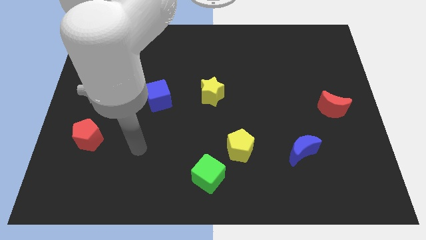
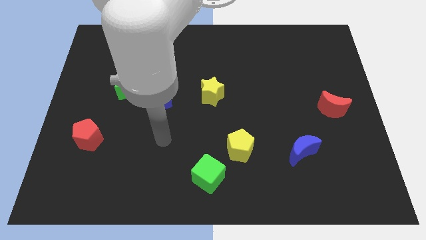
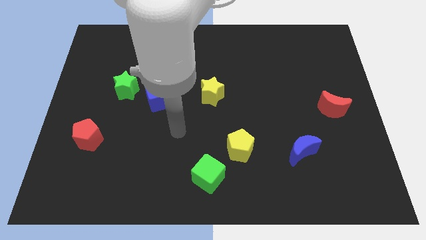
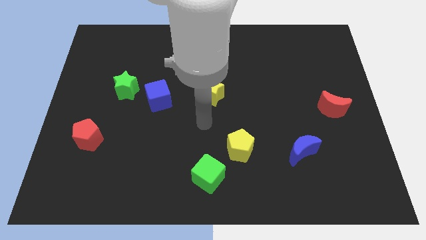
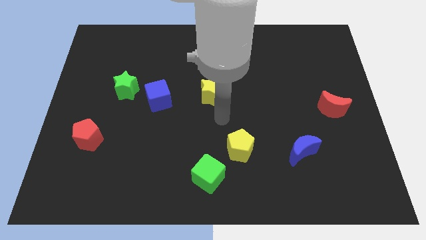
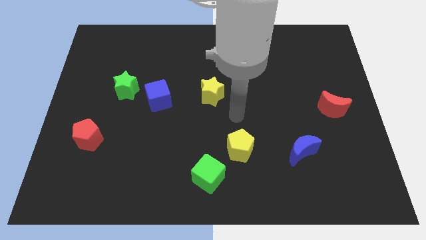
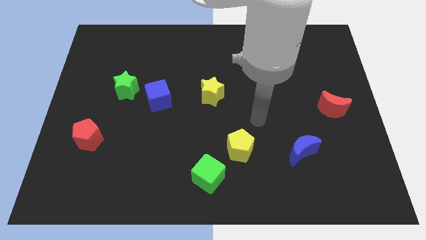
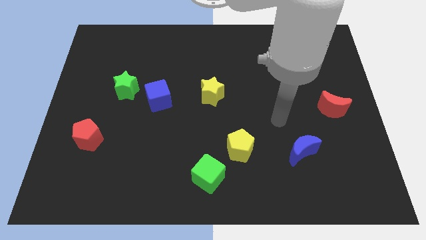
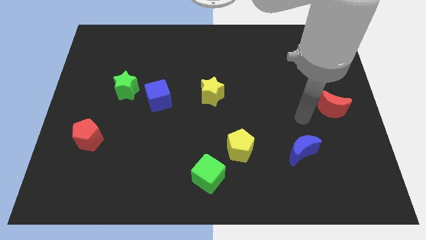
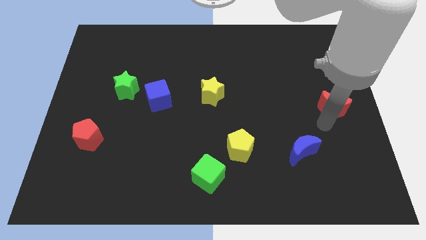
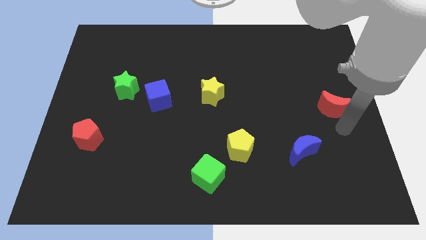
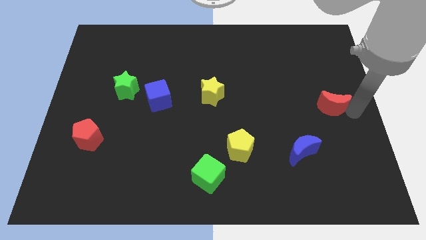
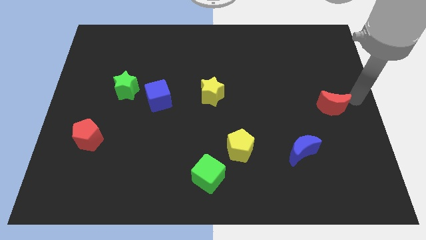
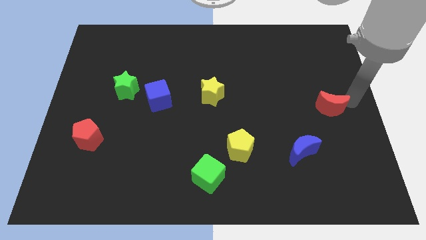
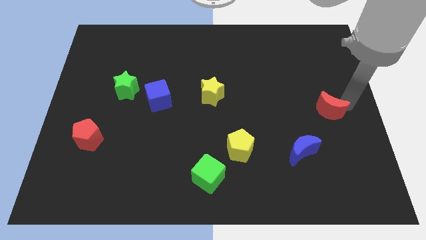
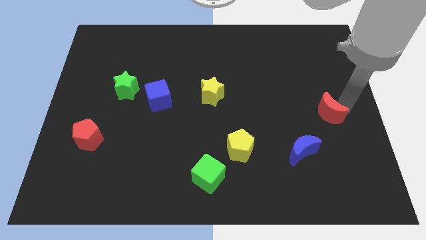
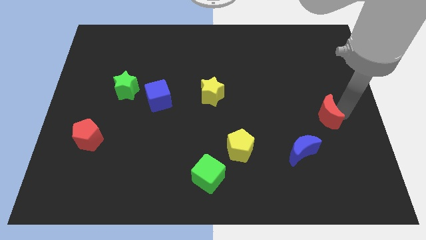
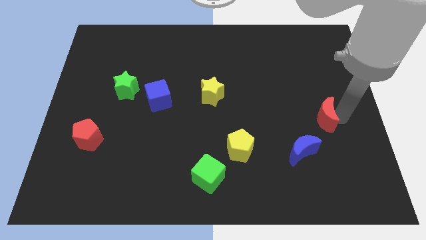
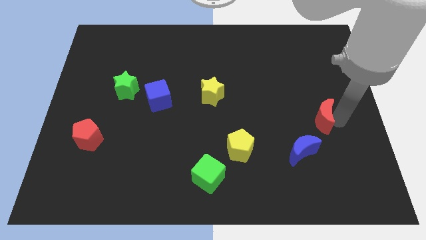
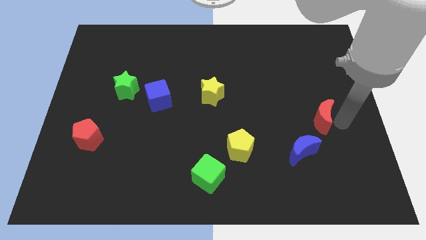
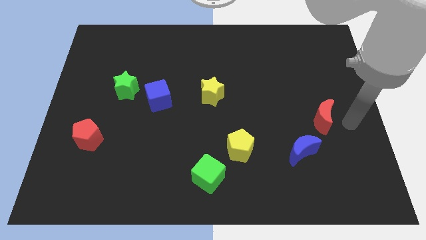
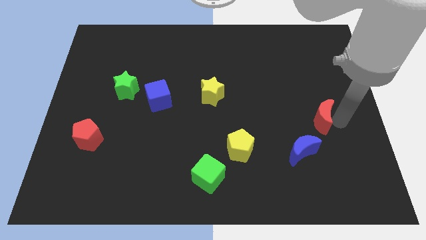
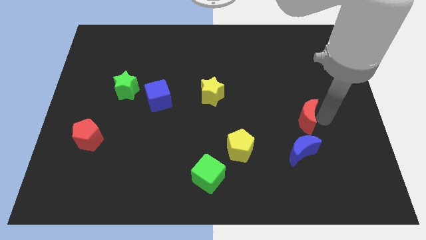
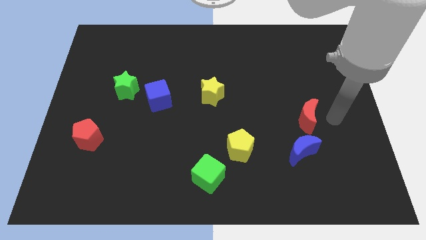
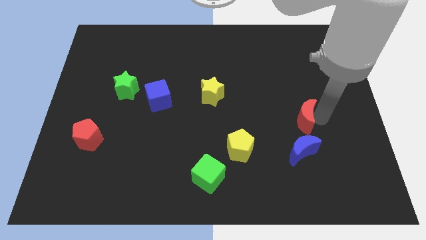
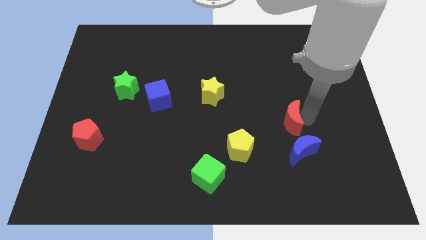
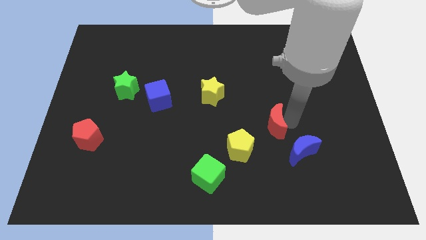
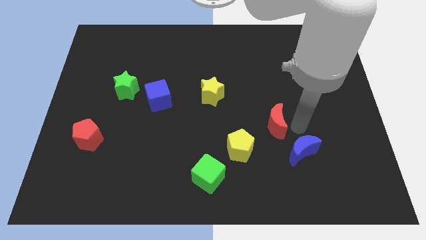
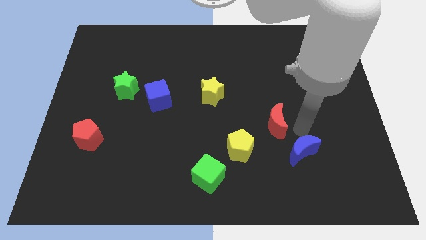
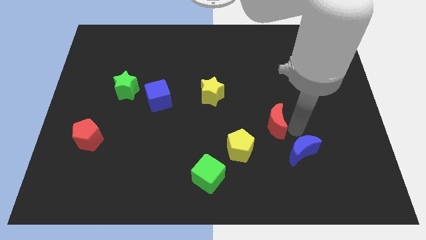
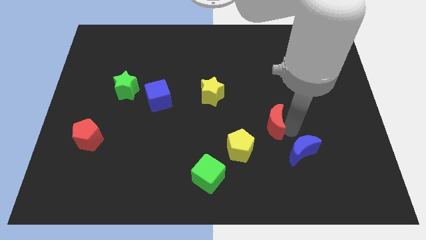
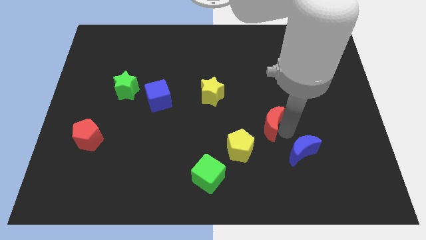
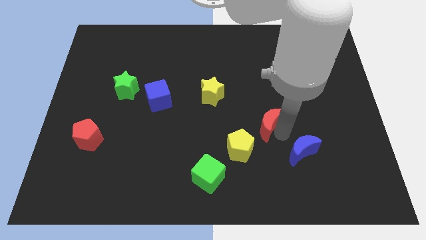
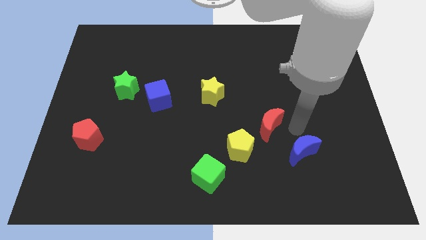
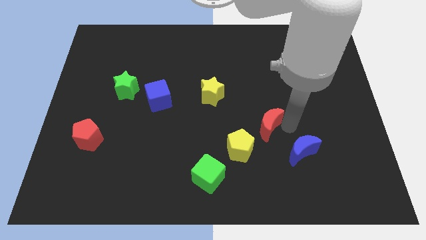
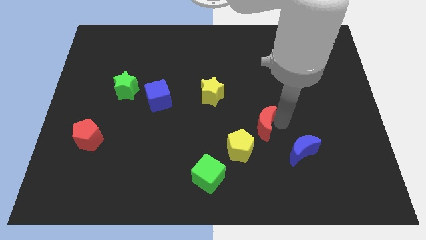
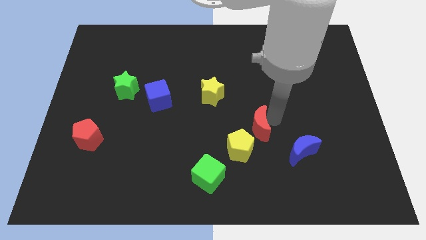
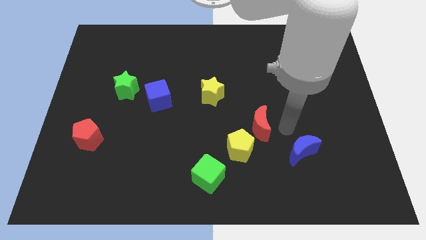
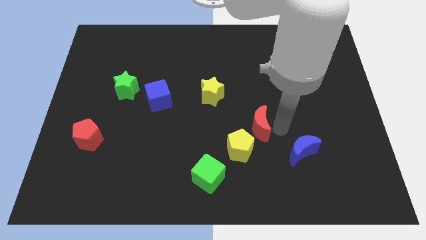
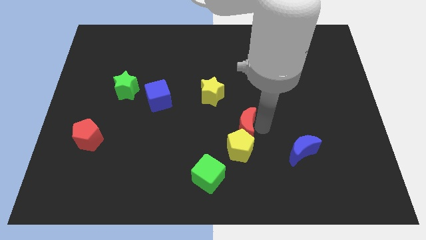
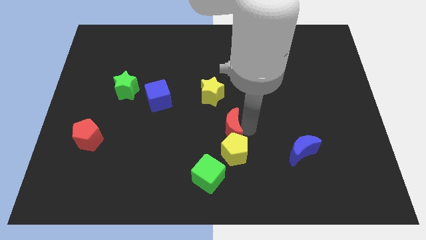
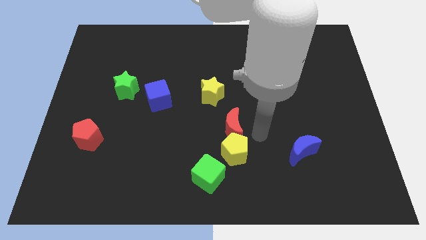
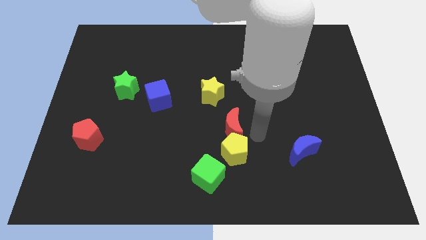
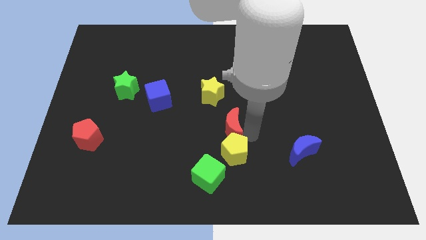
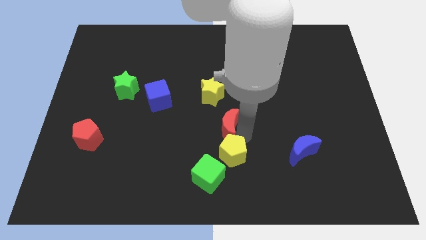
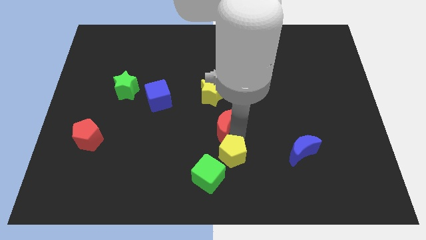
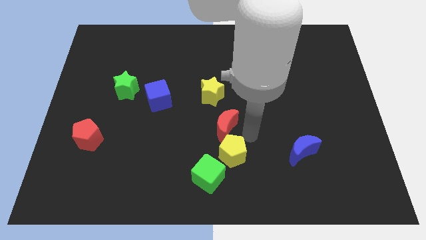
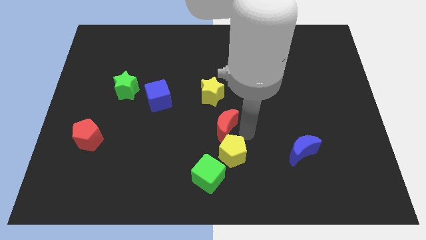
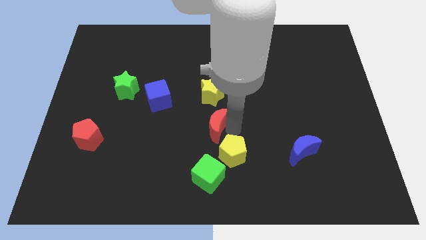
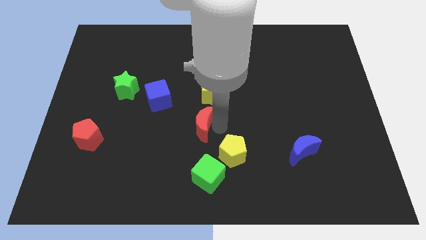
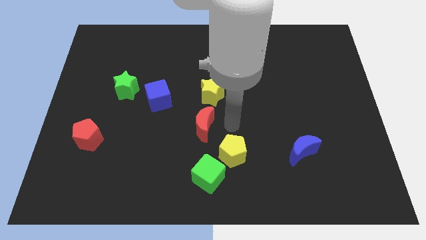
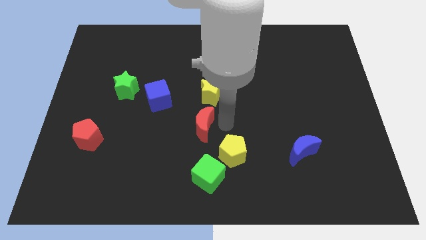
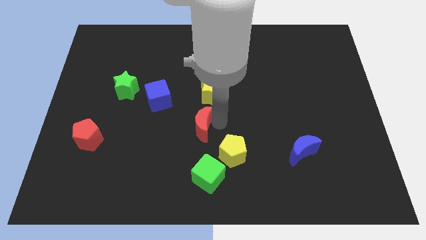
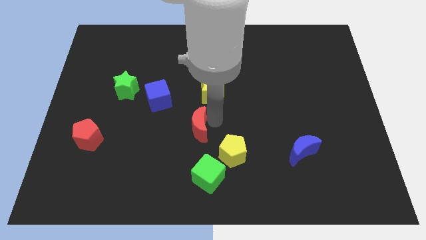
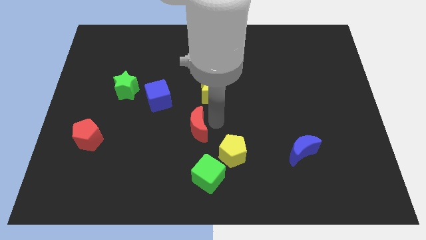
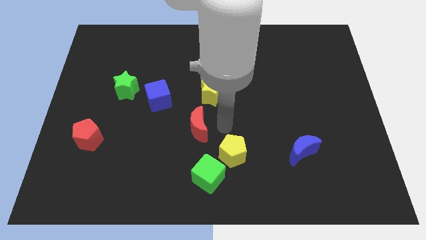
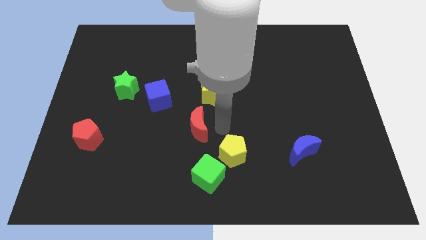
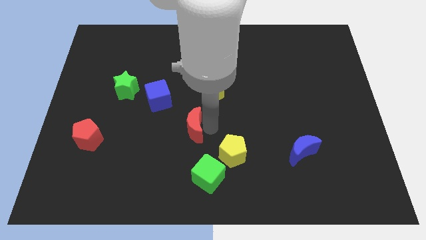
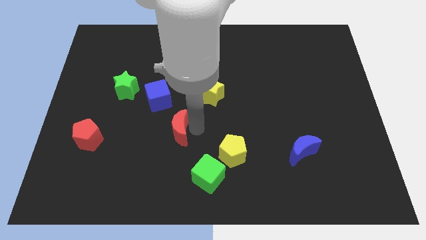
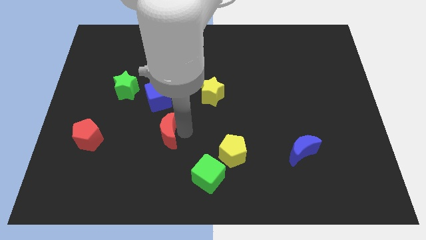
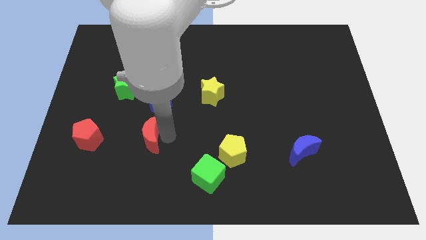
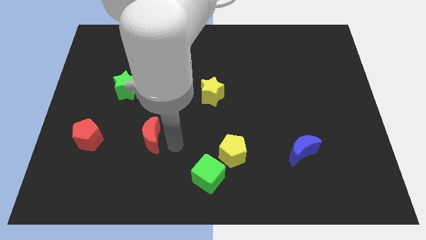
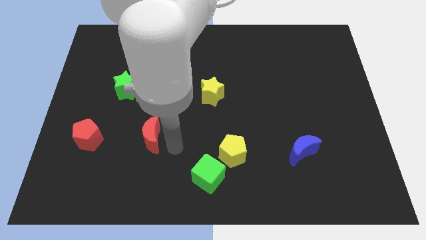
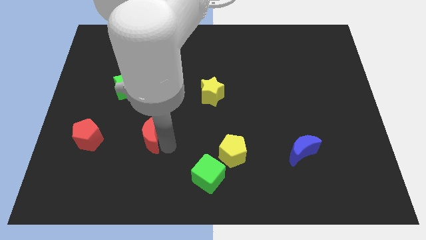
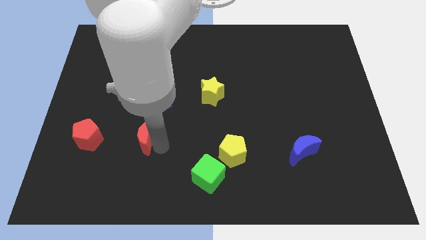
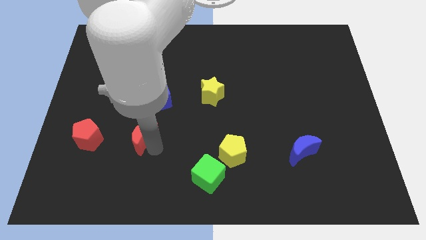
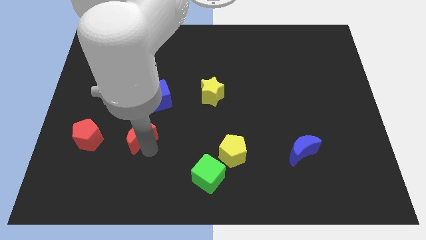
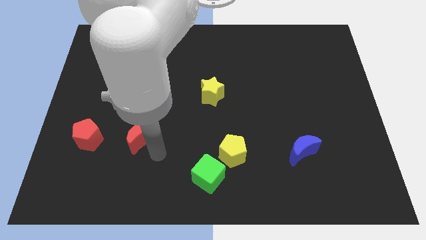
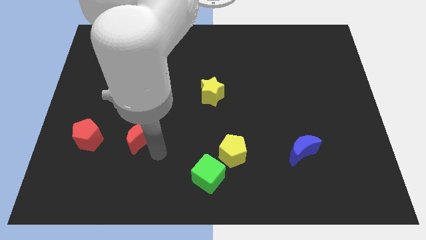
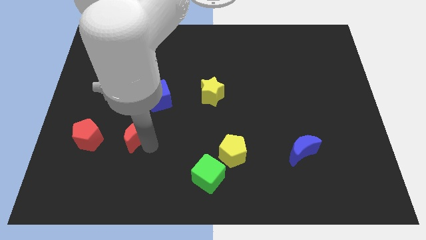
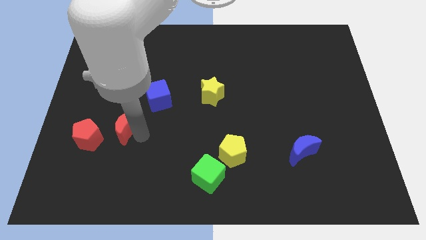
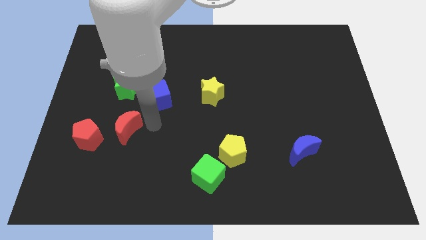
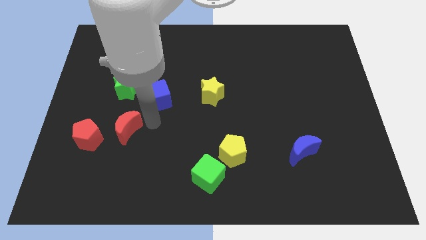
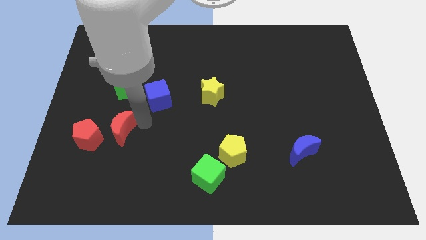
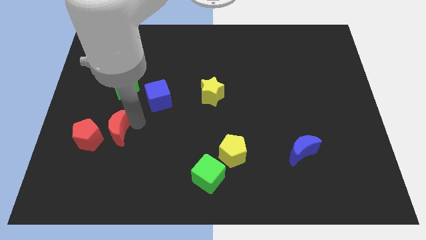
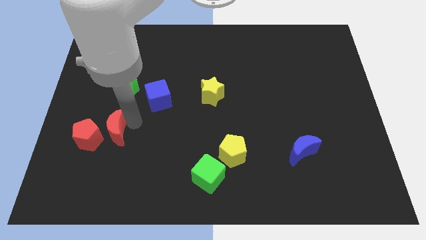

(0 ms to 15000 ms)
push the red moon next to the red pentagon
